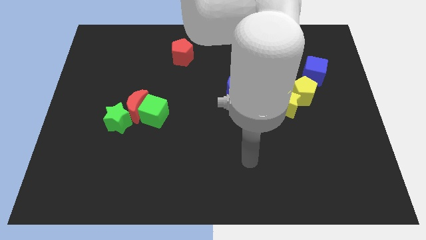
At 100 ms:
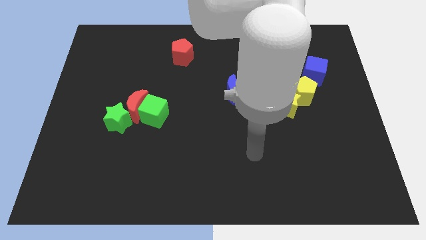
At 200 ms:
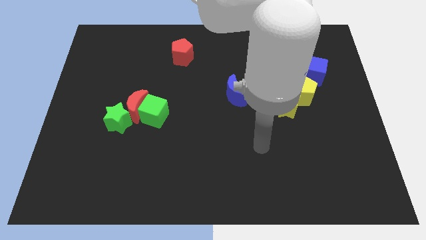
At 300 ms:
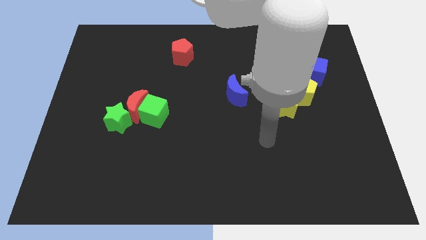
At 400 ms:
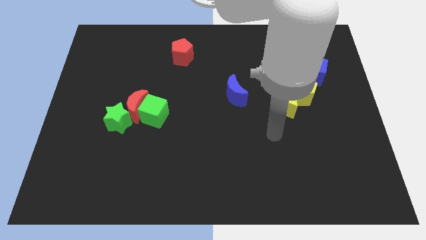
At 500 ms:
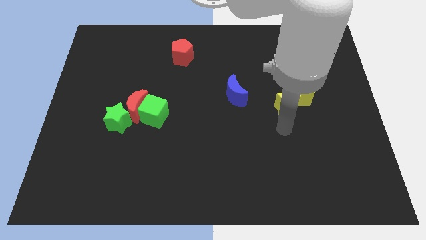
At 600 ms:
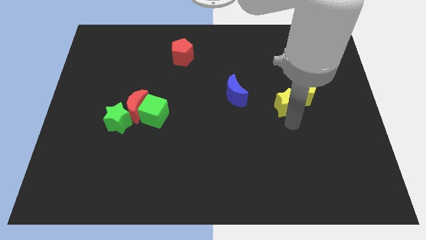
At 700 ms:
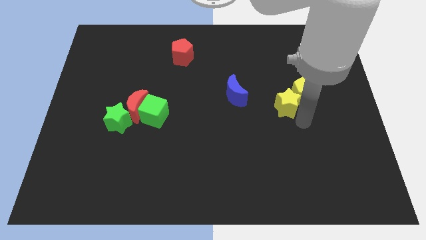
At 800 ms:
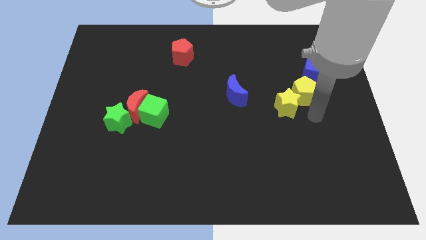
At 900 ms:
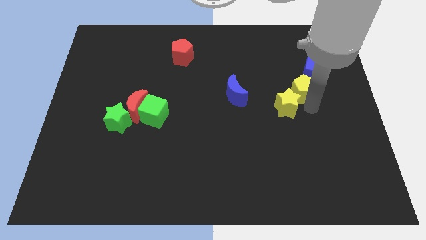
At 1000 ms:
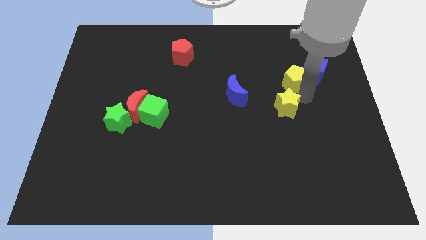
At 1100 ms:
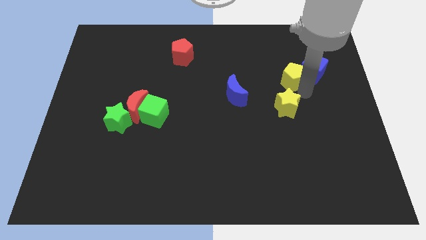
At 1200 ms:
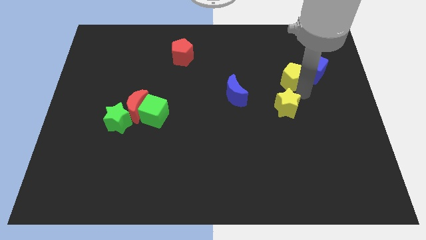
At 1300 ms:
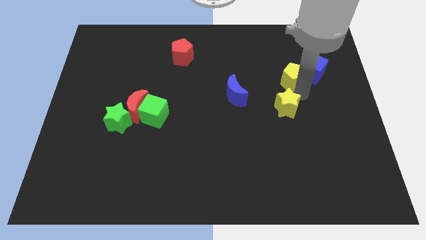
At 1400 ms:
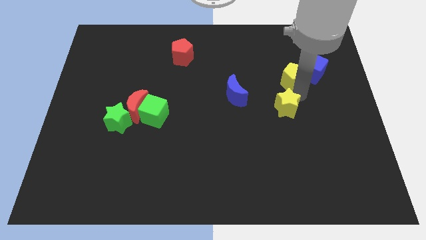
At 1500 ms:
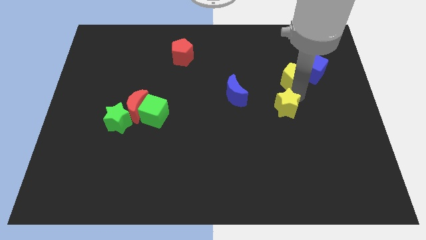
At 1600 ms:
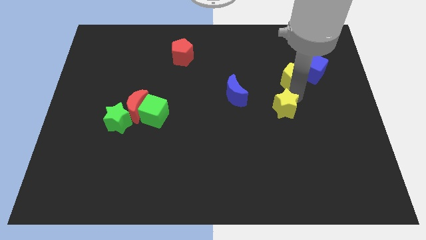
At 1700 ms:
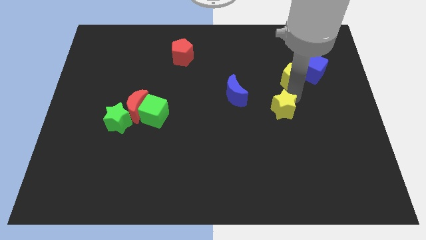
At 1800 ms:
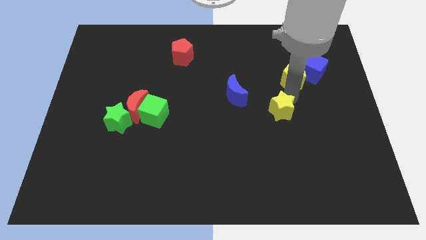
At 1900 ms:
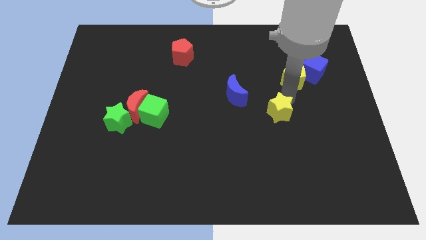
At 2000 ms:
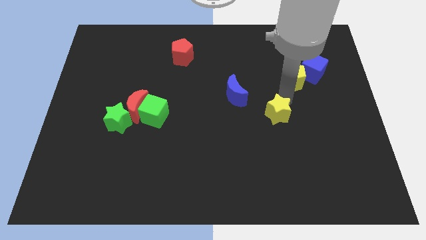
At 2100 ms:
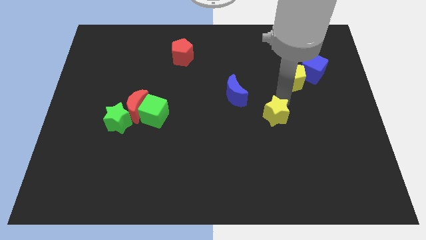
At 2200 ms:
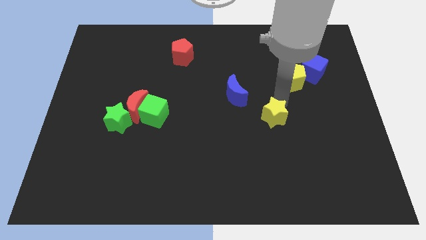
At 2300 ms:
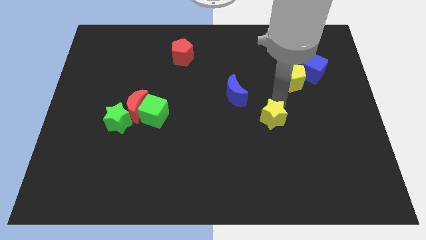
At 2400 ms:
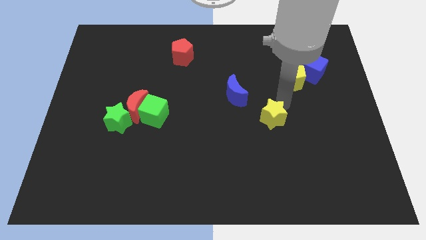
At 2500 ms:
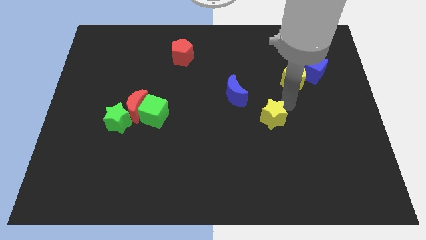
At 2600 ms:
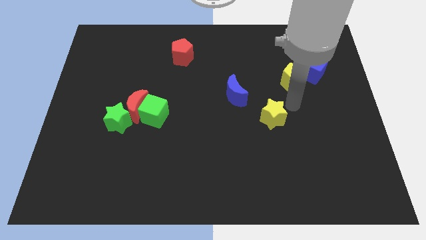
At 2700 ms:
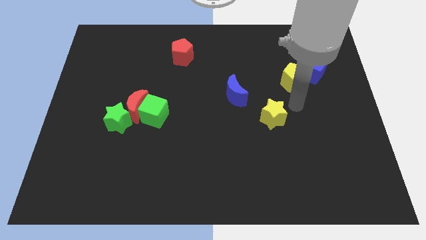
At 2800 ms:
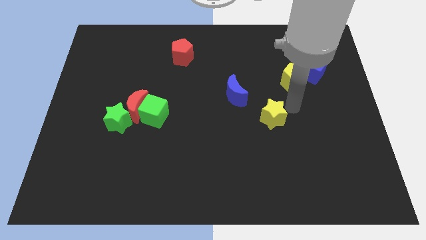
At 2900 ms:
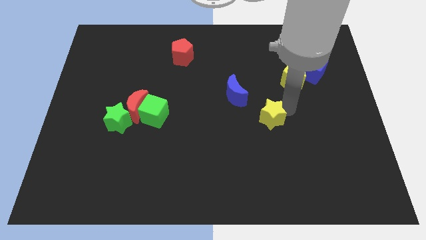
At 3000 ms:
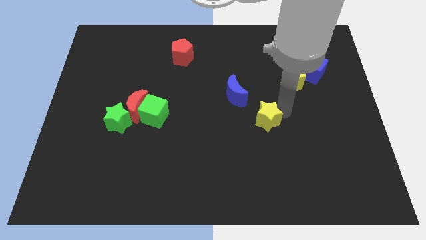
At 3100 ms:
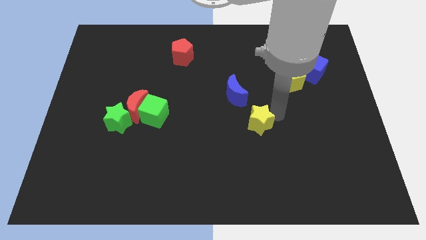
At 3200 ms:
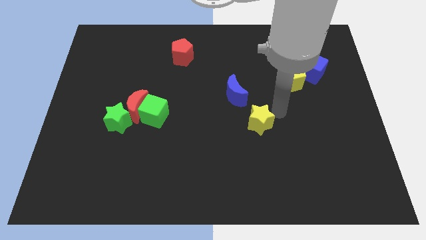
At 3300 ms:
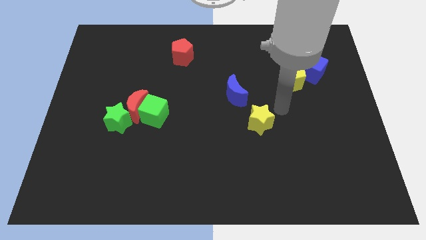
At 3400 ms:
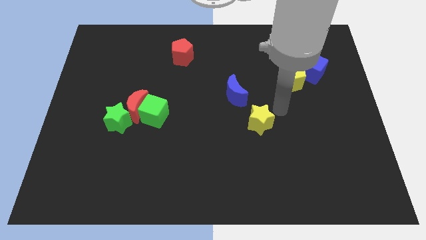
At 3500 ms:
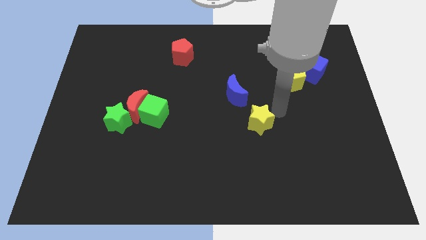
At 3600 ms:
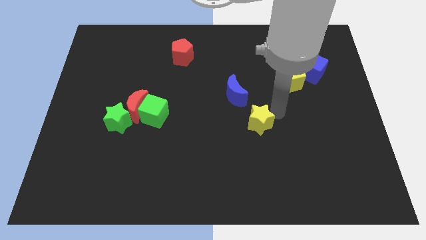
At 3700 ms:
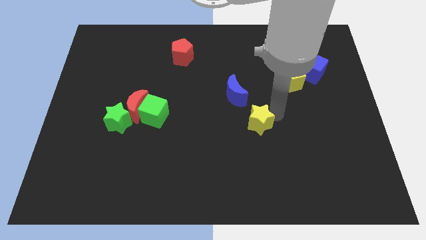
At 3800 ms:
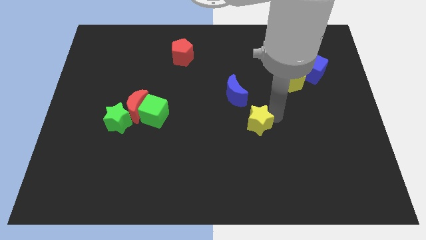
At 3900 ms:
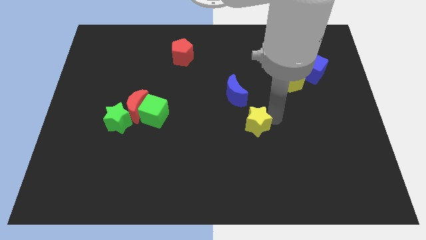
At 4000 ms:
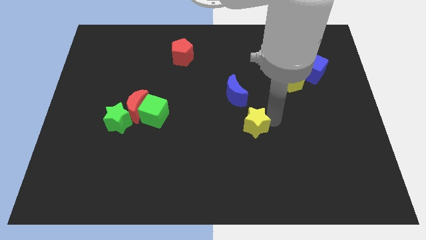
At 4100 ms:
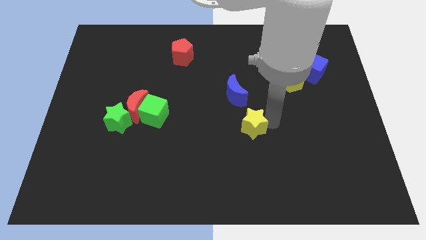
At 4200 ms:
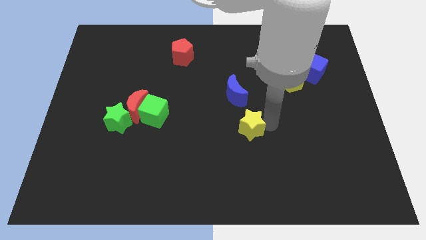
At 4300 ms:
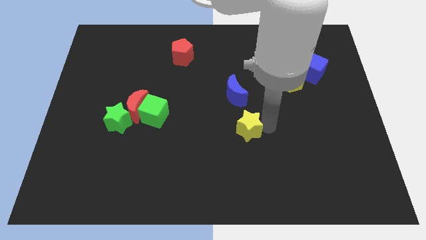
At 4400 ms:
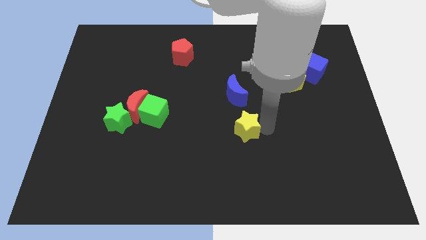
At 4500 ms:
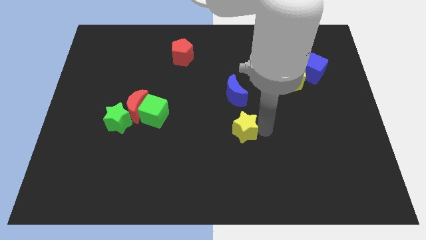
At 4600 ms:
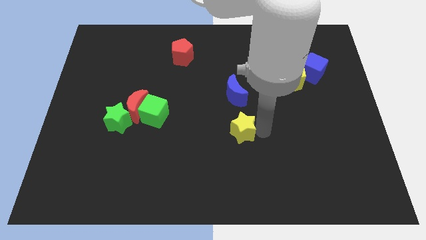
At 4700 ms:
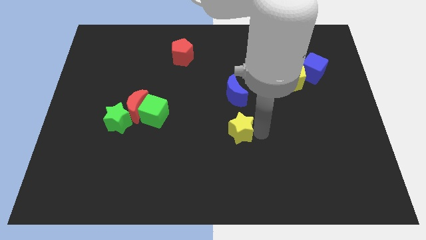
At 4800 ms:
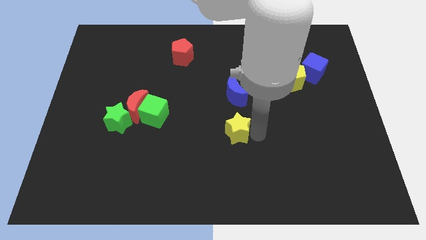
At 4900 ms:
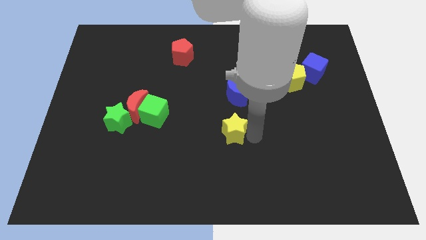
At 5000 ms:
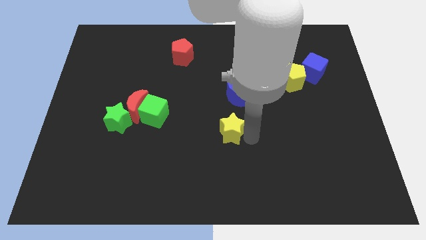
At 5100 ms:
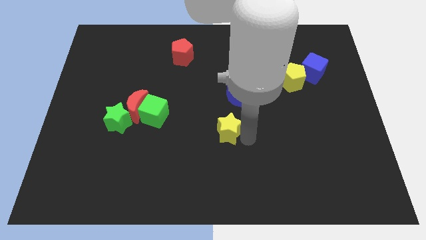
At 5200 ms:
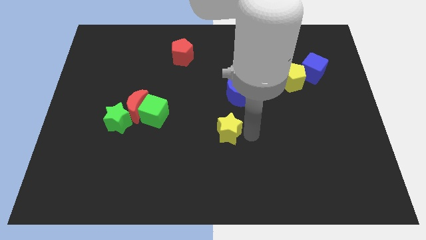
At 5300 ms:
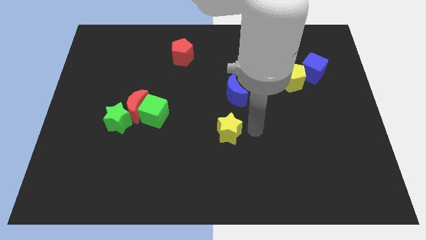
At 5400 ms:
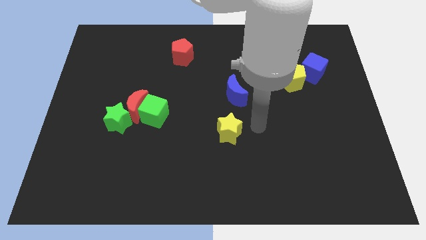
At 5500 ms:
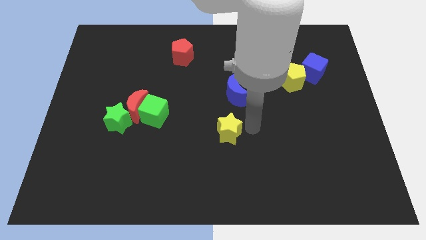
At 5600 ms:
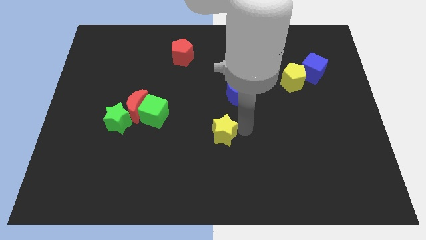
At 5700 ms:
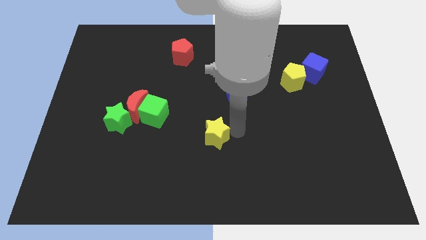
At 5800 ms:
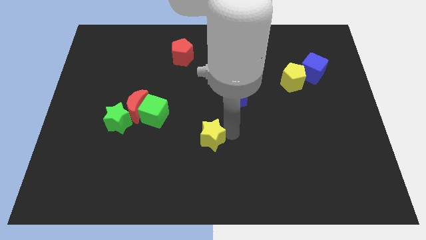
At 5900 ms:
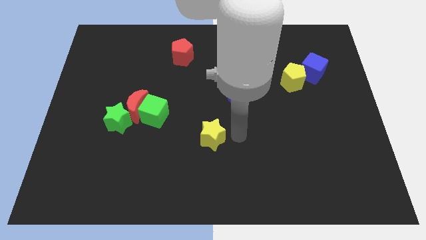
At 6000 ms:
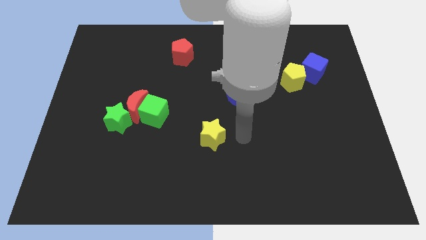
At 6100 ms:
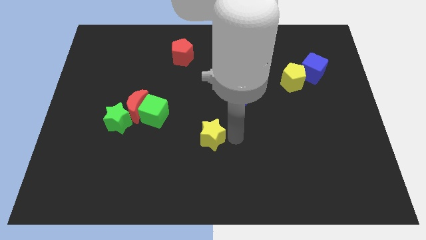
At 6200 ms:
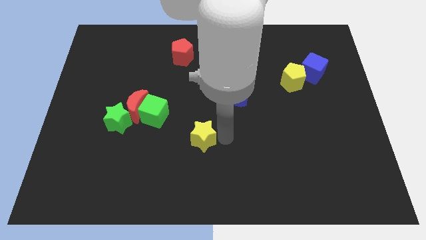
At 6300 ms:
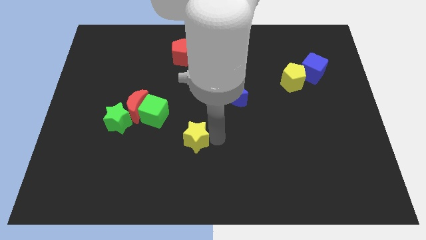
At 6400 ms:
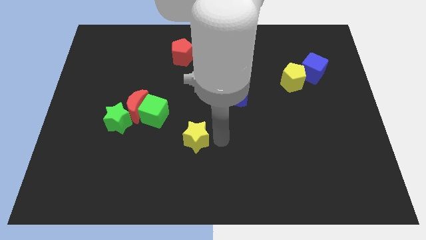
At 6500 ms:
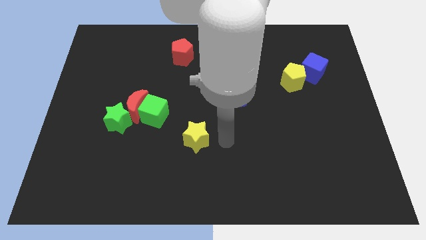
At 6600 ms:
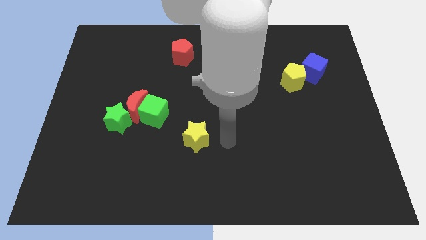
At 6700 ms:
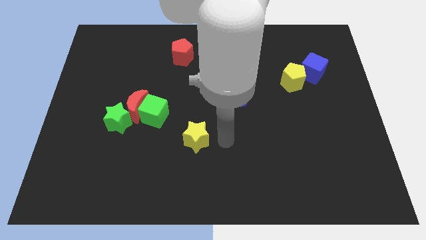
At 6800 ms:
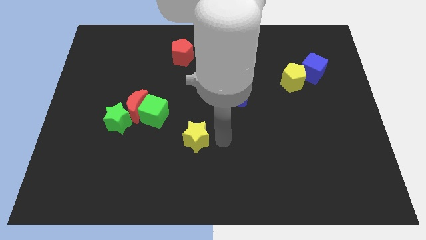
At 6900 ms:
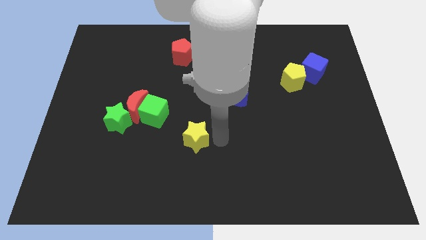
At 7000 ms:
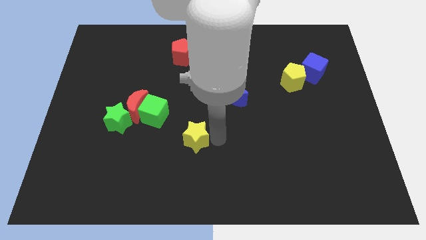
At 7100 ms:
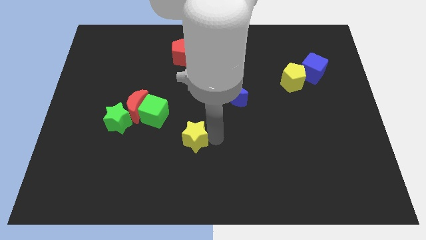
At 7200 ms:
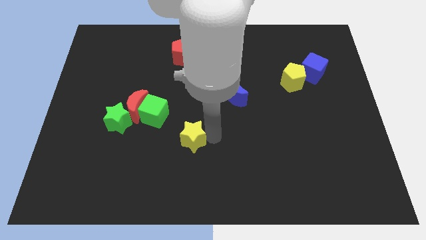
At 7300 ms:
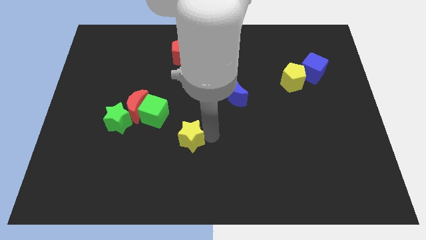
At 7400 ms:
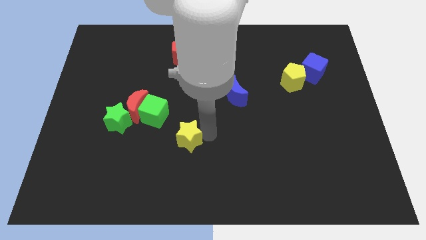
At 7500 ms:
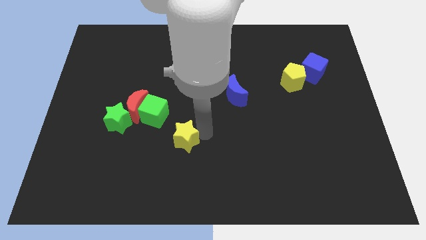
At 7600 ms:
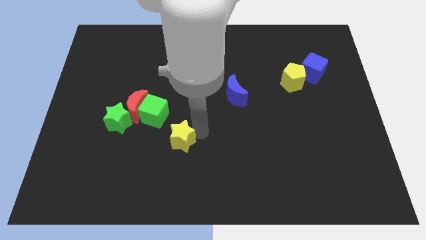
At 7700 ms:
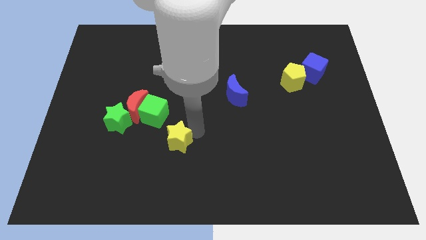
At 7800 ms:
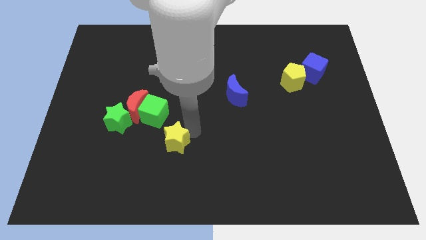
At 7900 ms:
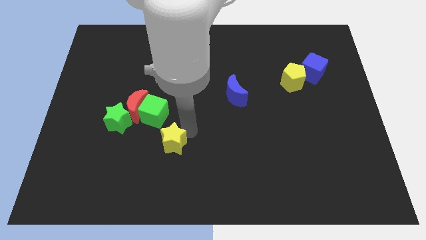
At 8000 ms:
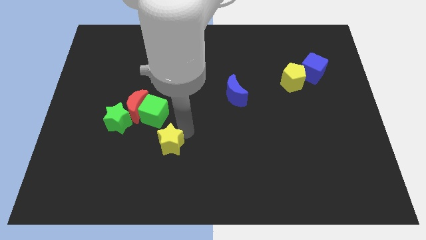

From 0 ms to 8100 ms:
push the yellow star to the bottom of the green cube
